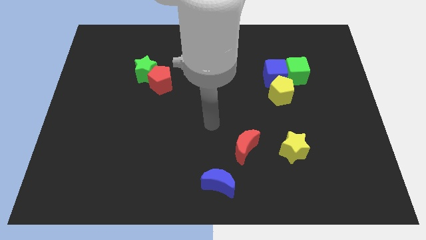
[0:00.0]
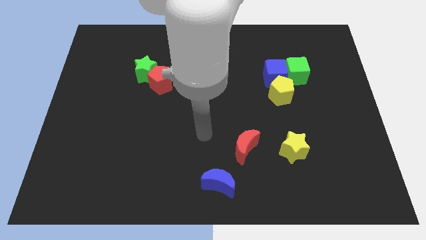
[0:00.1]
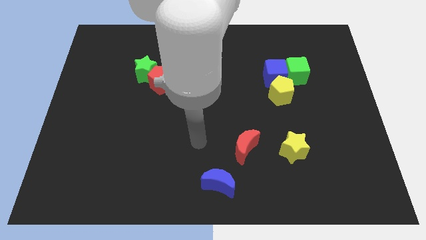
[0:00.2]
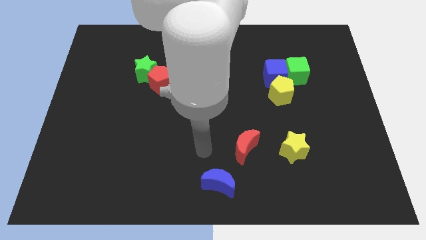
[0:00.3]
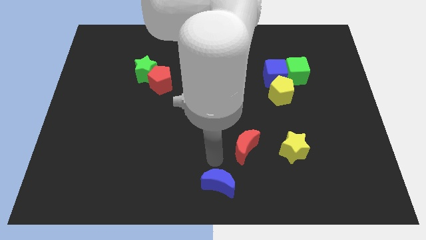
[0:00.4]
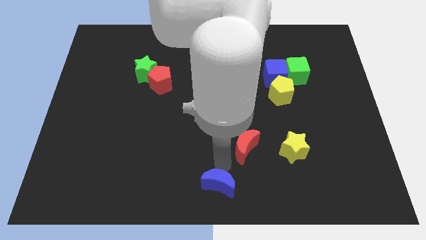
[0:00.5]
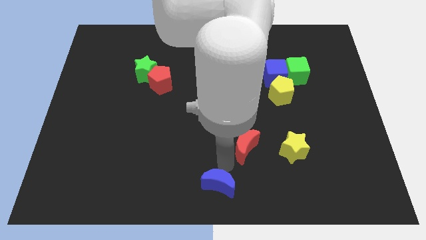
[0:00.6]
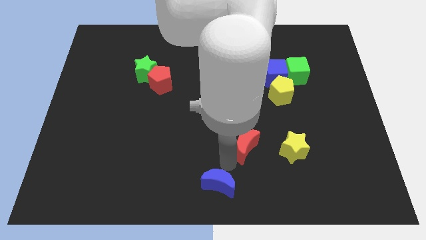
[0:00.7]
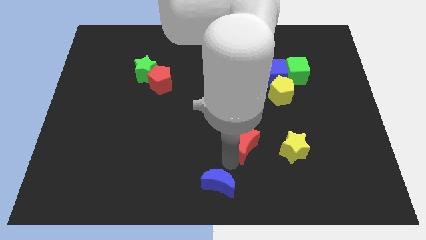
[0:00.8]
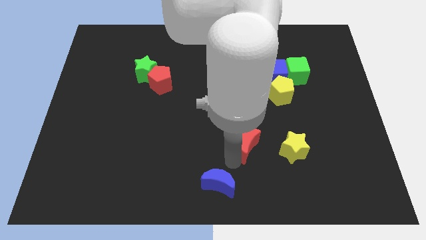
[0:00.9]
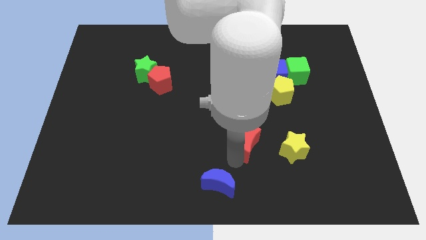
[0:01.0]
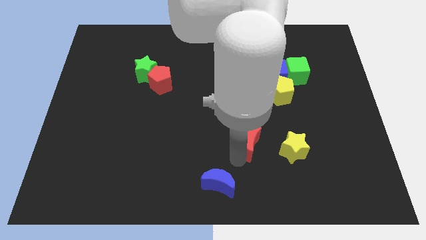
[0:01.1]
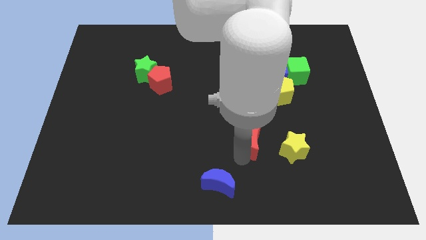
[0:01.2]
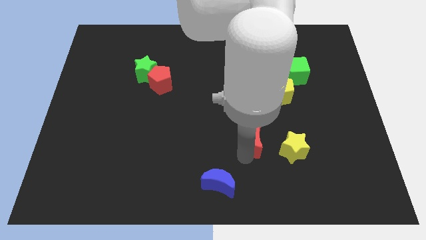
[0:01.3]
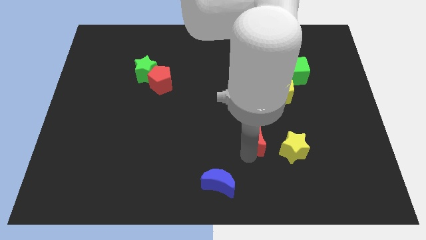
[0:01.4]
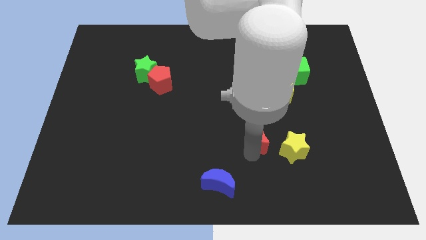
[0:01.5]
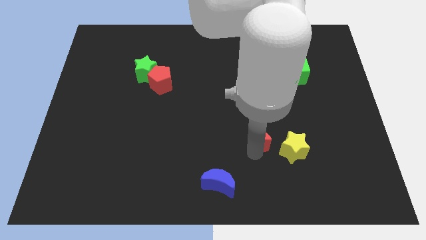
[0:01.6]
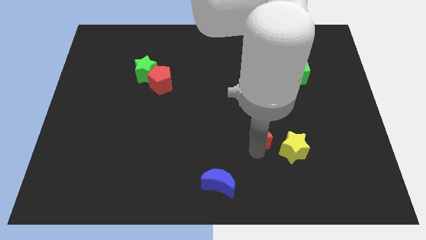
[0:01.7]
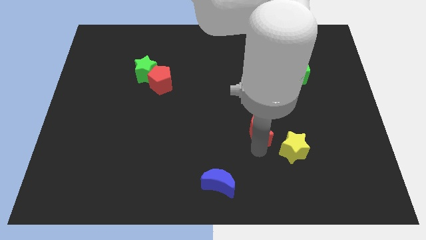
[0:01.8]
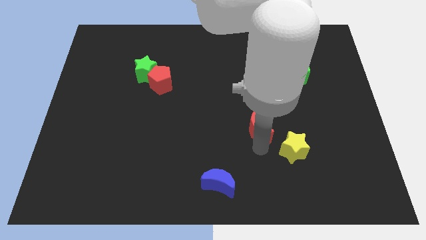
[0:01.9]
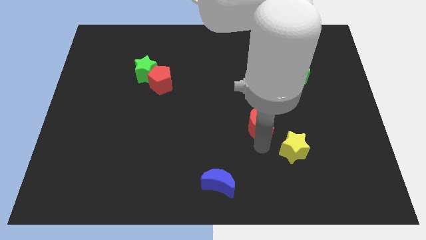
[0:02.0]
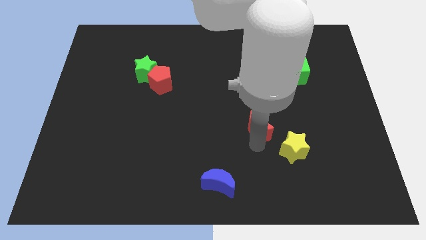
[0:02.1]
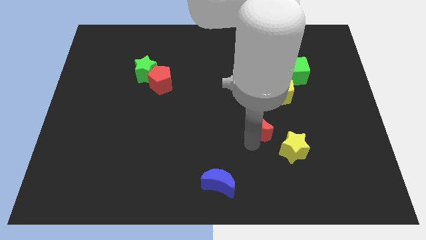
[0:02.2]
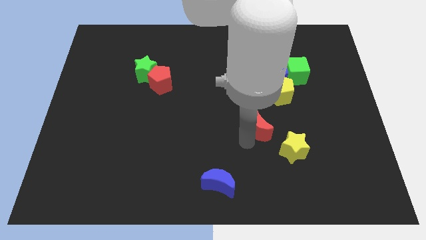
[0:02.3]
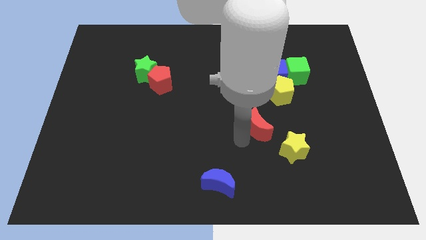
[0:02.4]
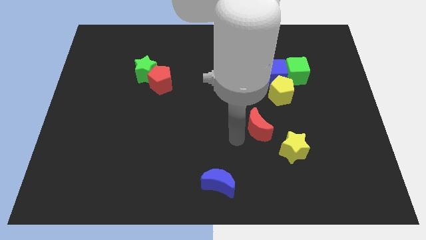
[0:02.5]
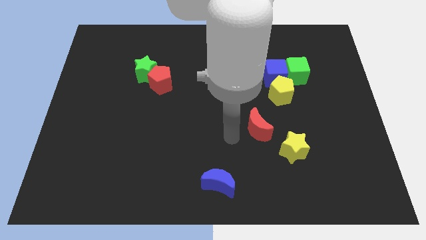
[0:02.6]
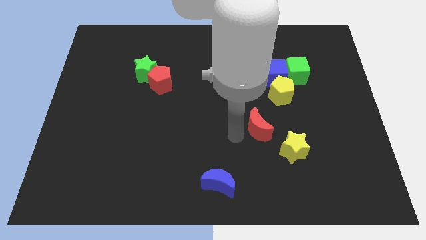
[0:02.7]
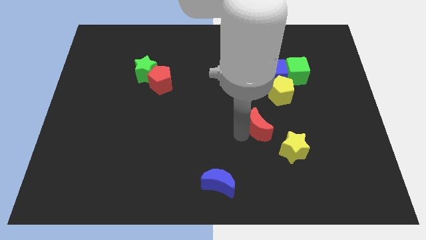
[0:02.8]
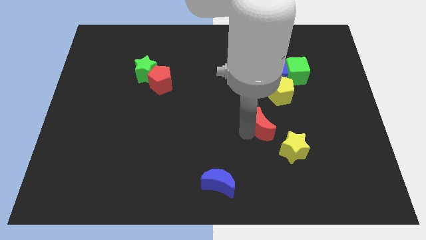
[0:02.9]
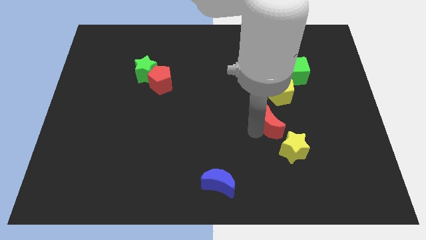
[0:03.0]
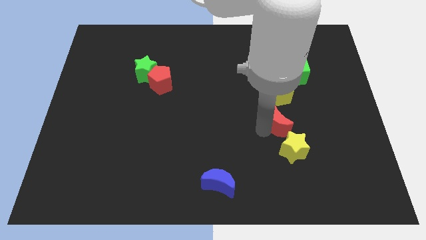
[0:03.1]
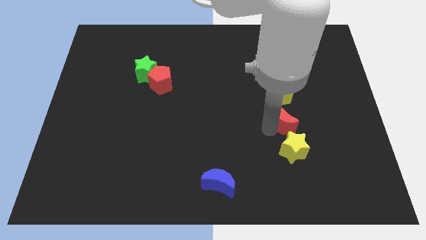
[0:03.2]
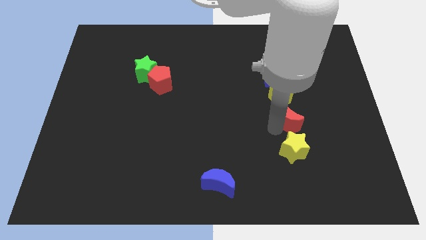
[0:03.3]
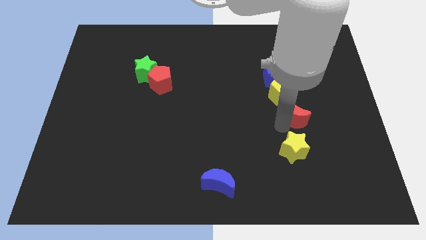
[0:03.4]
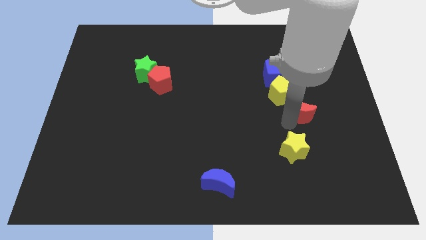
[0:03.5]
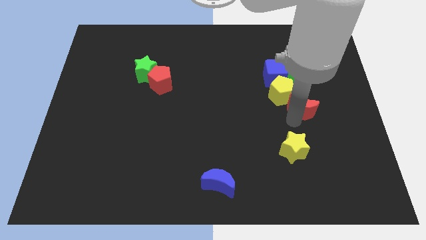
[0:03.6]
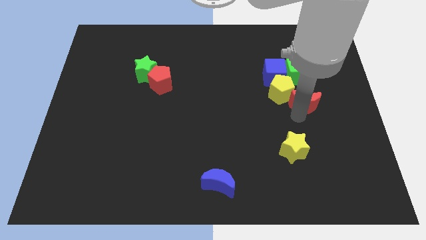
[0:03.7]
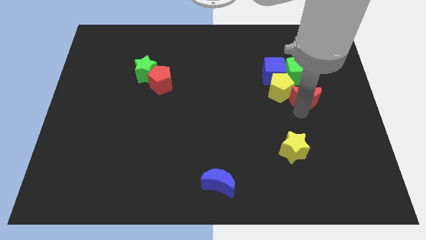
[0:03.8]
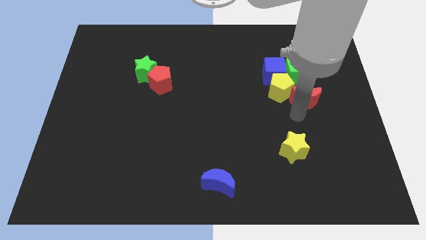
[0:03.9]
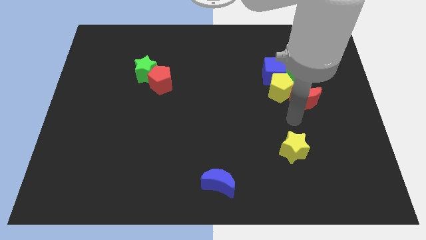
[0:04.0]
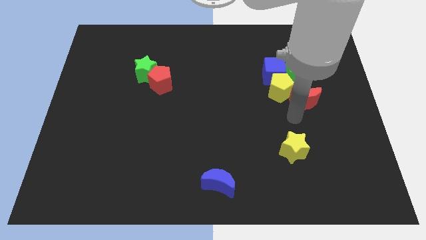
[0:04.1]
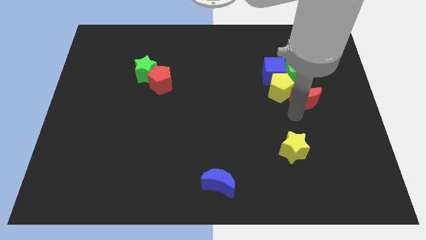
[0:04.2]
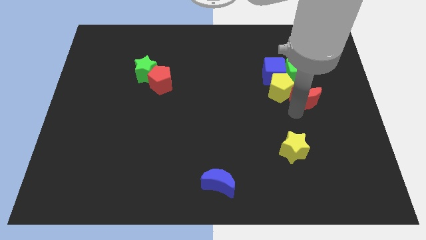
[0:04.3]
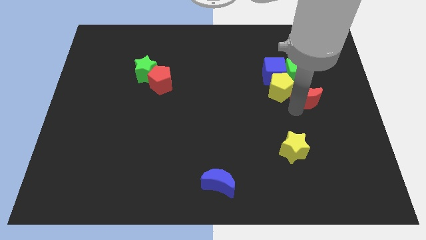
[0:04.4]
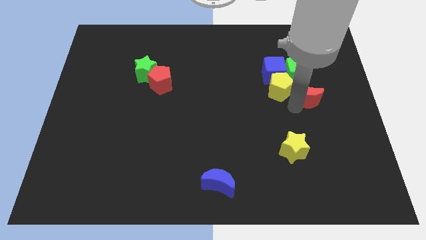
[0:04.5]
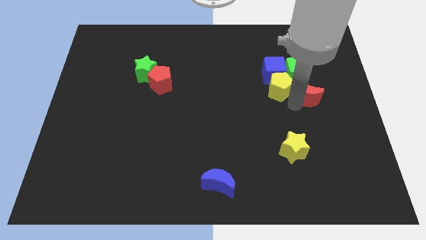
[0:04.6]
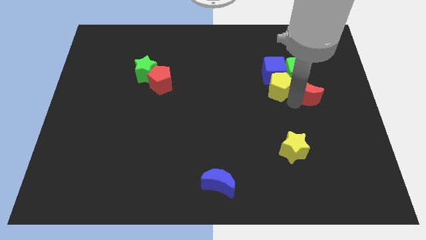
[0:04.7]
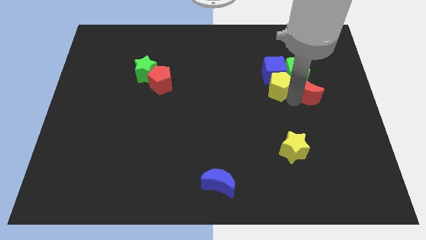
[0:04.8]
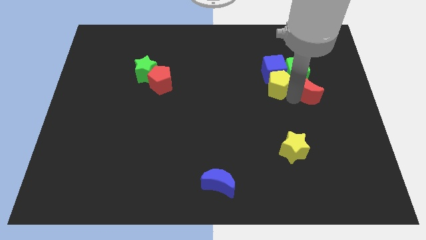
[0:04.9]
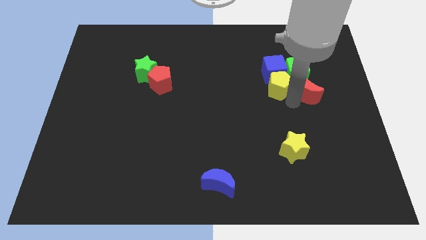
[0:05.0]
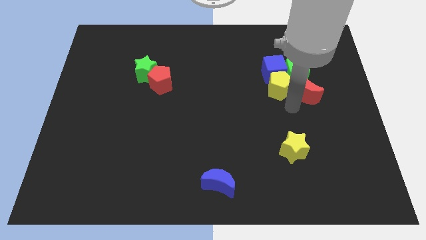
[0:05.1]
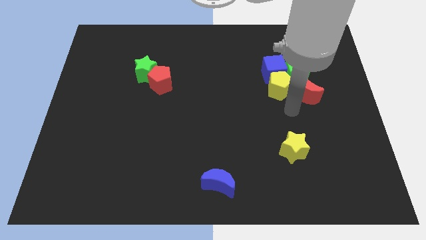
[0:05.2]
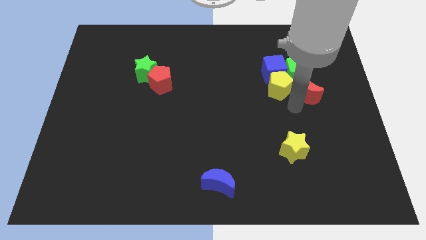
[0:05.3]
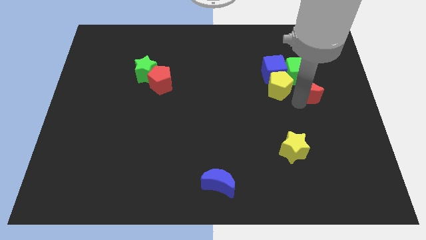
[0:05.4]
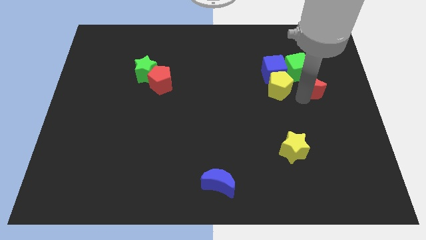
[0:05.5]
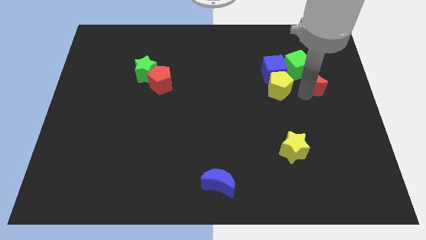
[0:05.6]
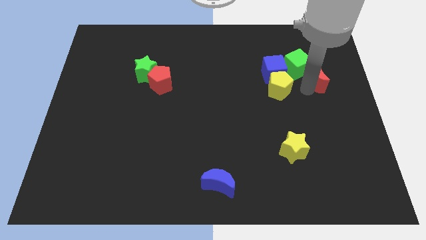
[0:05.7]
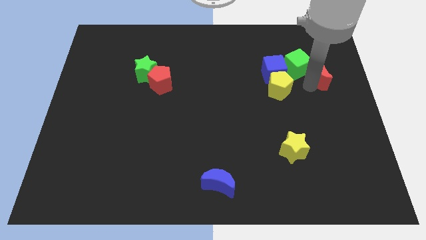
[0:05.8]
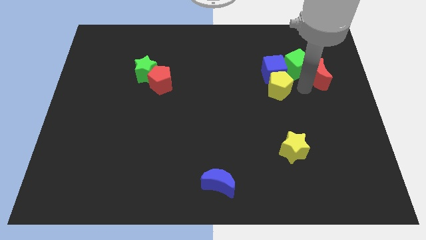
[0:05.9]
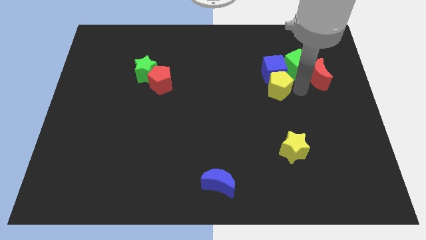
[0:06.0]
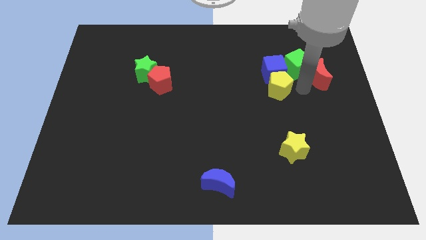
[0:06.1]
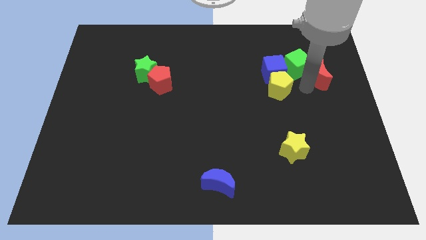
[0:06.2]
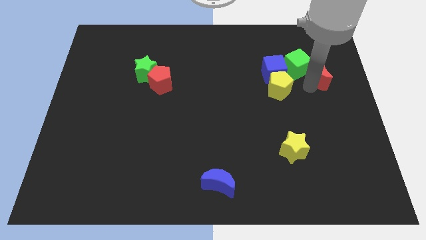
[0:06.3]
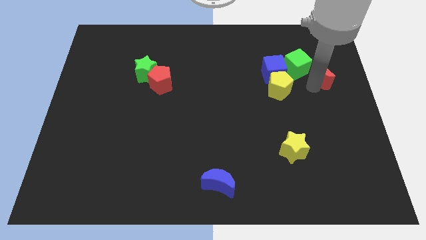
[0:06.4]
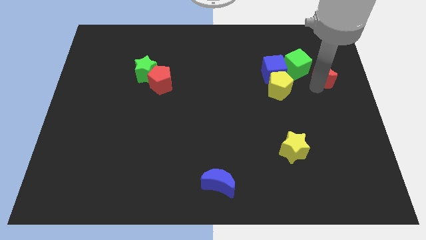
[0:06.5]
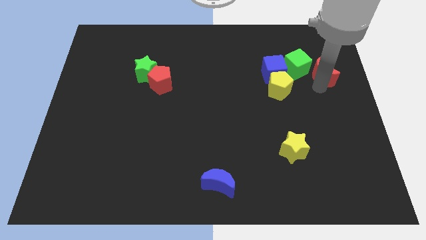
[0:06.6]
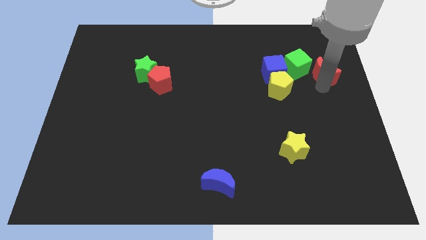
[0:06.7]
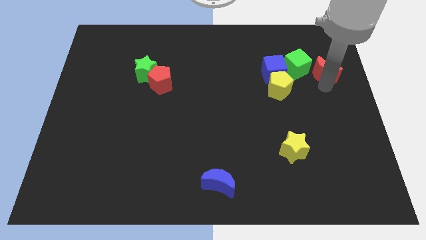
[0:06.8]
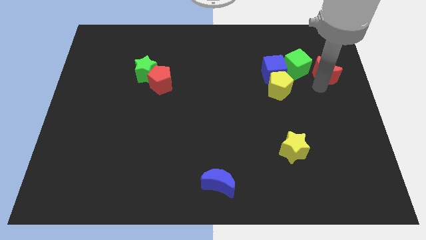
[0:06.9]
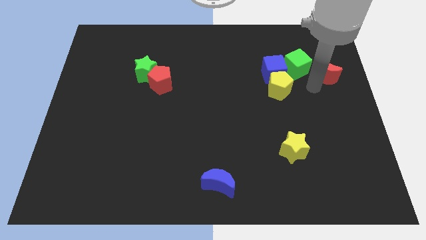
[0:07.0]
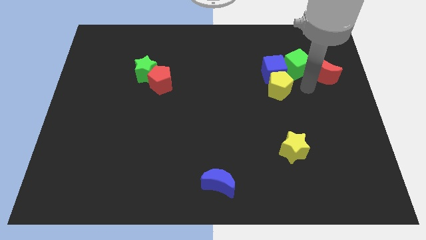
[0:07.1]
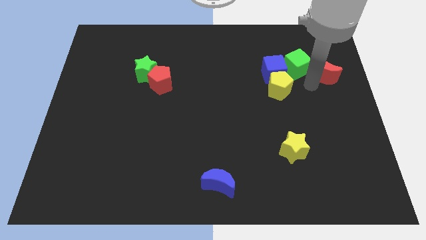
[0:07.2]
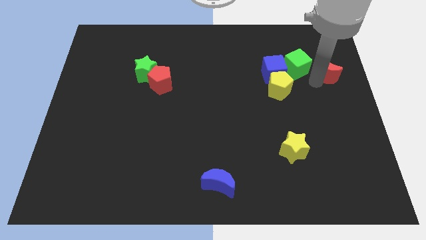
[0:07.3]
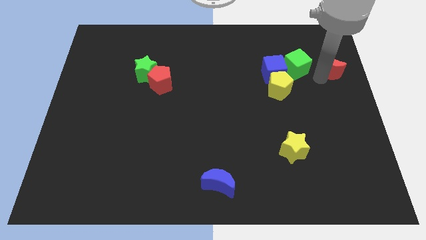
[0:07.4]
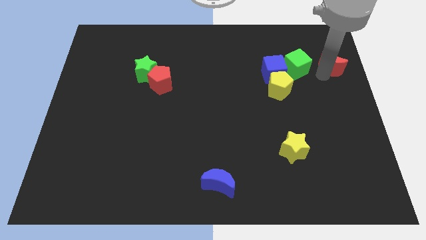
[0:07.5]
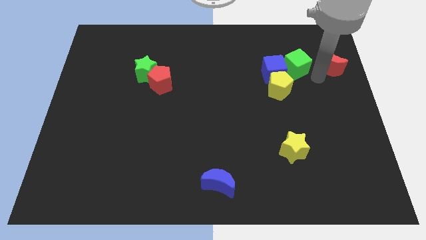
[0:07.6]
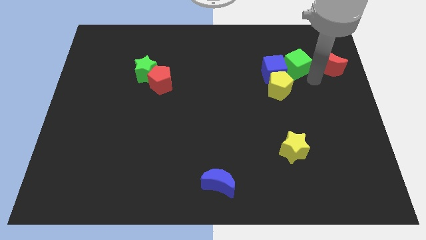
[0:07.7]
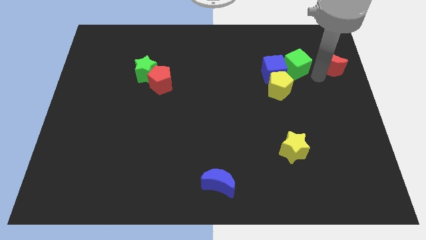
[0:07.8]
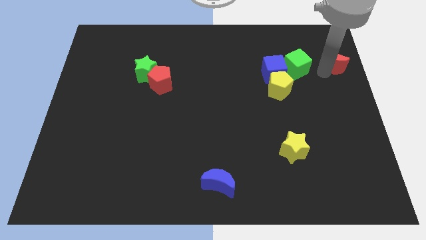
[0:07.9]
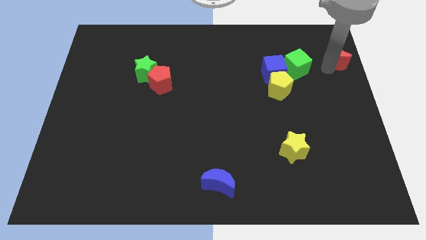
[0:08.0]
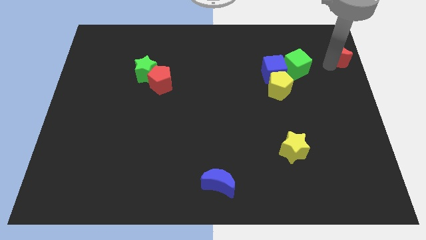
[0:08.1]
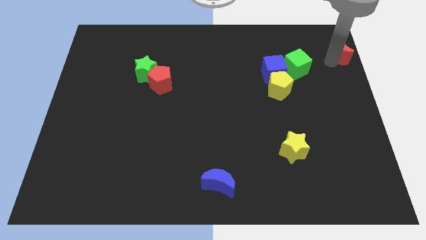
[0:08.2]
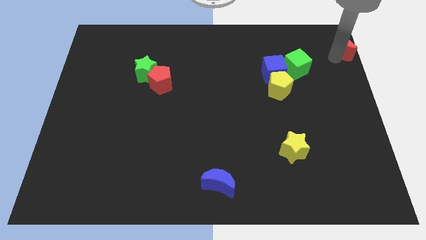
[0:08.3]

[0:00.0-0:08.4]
slide the red moon to the upper right corner
